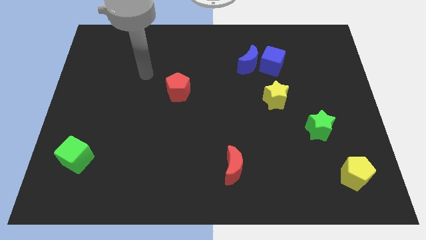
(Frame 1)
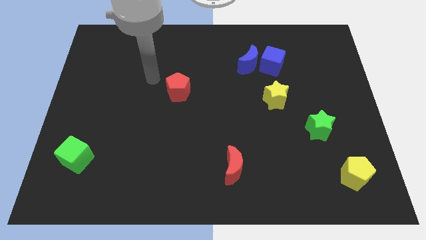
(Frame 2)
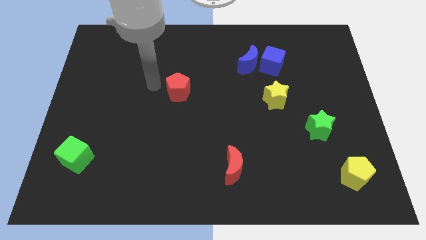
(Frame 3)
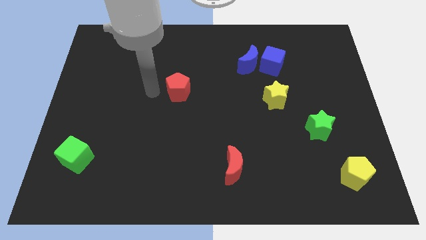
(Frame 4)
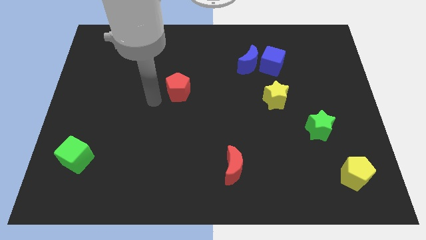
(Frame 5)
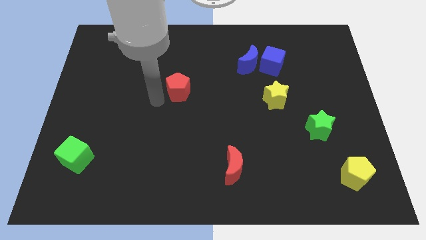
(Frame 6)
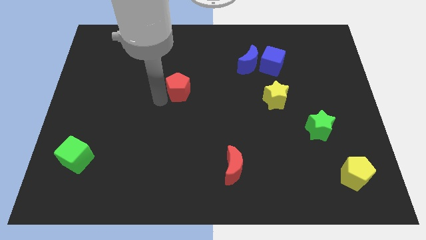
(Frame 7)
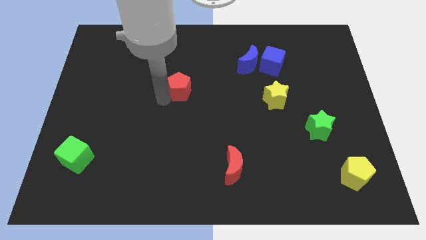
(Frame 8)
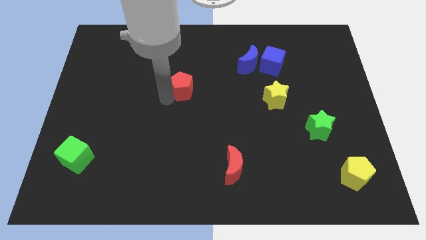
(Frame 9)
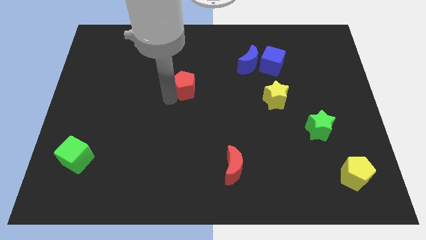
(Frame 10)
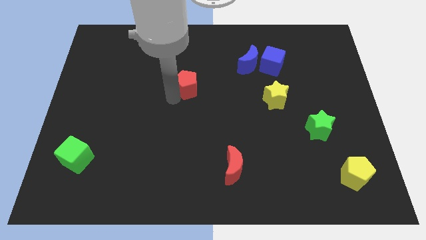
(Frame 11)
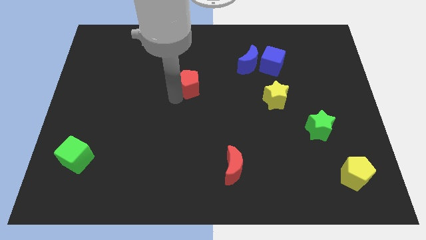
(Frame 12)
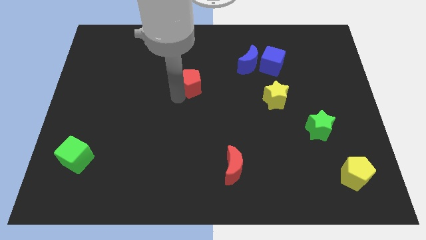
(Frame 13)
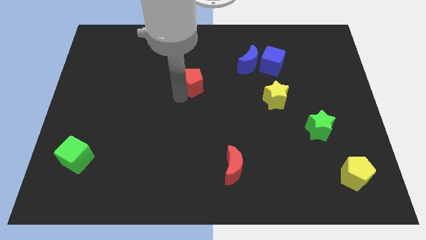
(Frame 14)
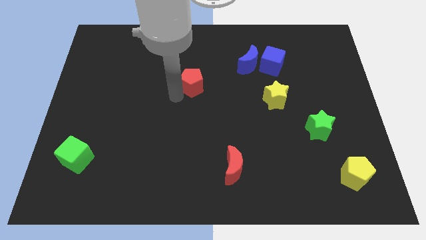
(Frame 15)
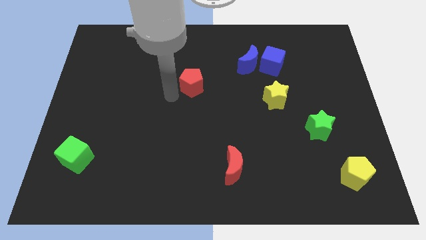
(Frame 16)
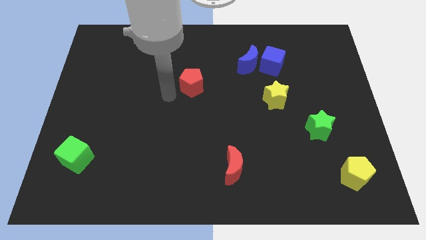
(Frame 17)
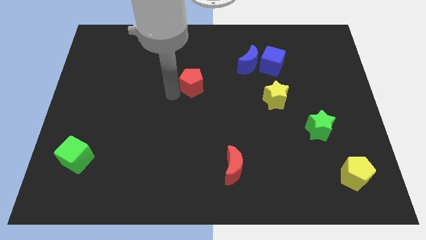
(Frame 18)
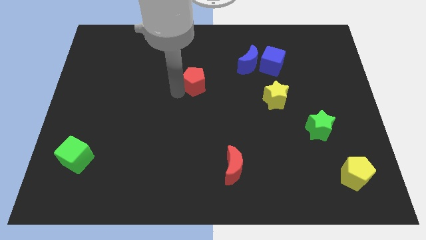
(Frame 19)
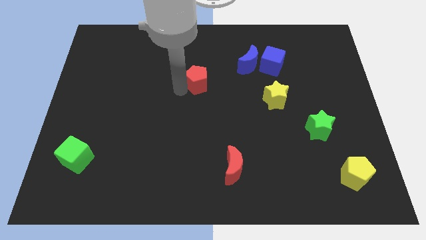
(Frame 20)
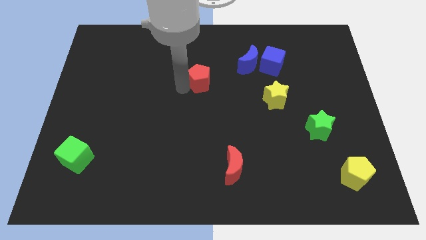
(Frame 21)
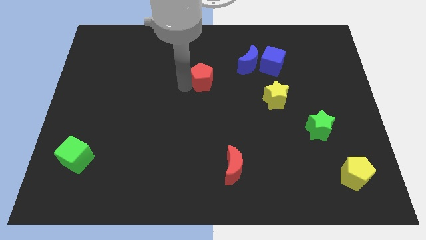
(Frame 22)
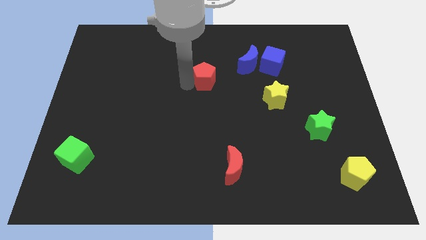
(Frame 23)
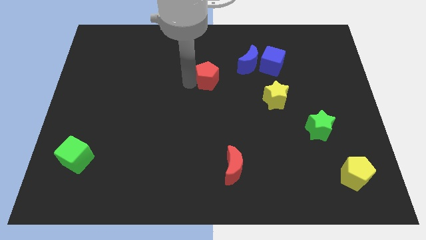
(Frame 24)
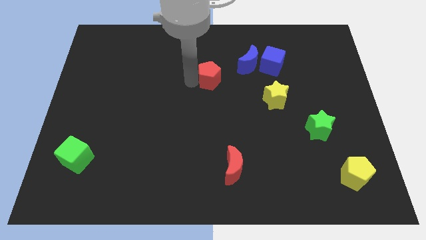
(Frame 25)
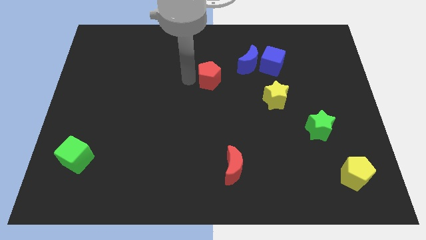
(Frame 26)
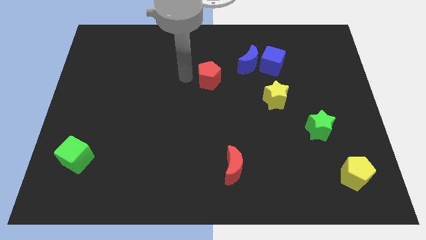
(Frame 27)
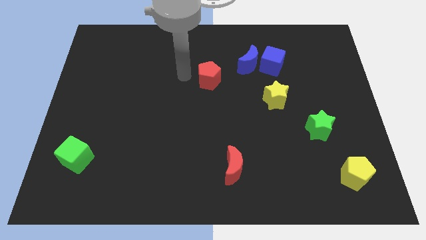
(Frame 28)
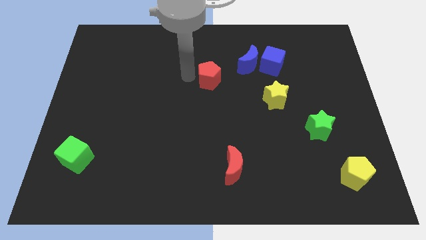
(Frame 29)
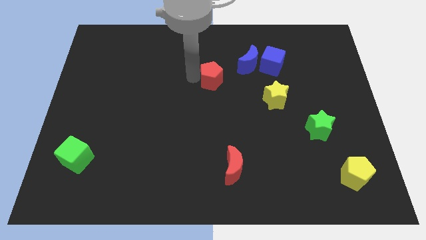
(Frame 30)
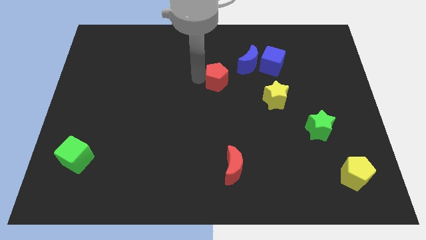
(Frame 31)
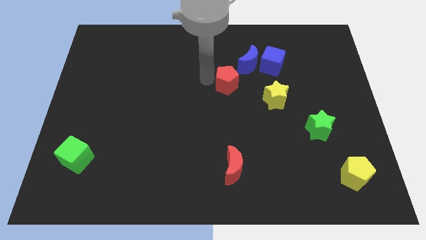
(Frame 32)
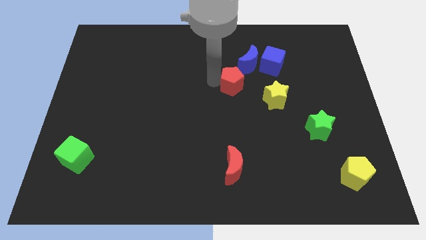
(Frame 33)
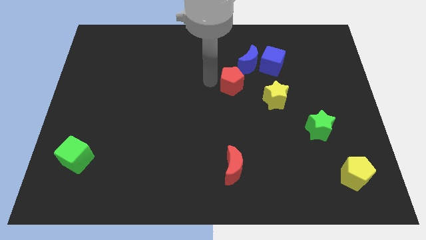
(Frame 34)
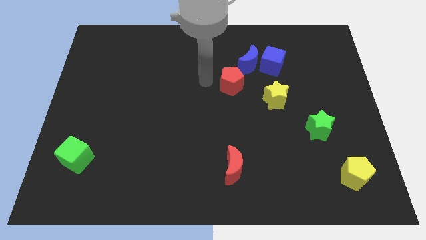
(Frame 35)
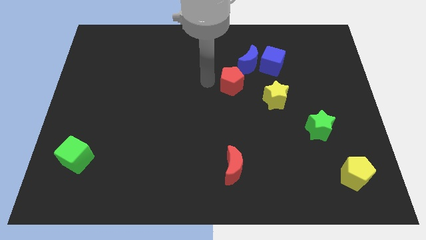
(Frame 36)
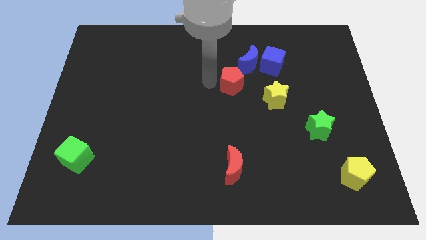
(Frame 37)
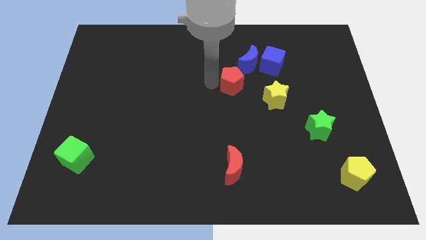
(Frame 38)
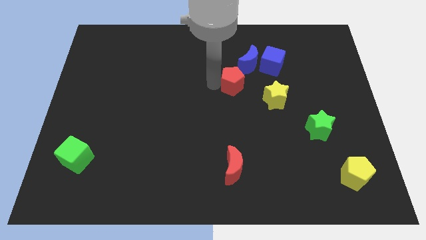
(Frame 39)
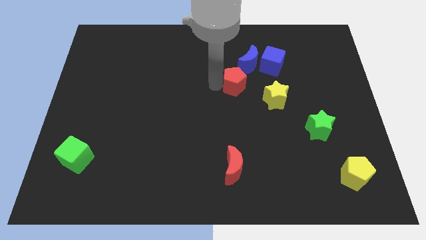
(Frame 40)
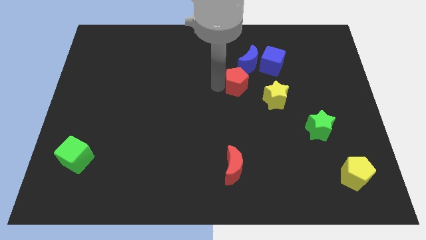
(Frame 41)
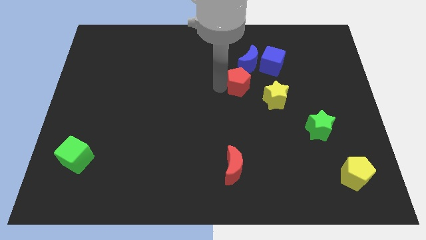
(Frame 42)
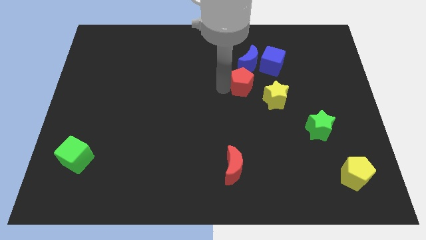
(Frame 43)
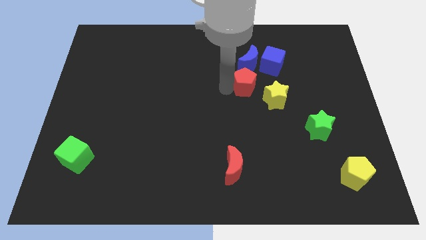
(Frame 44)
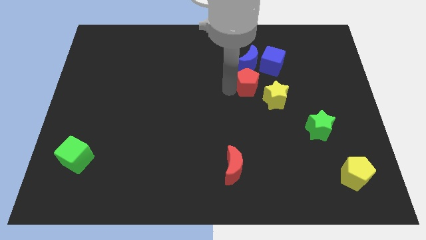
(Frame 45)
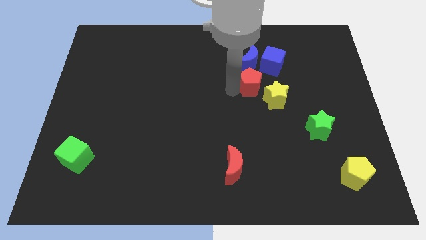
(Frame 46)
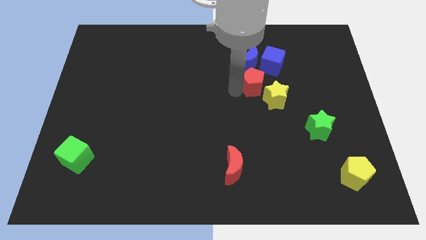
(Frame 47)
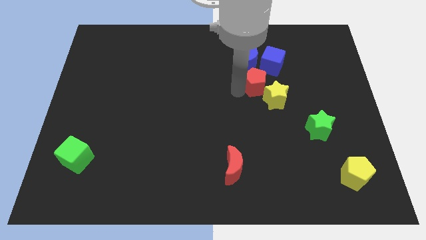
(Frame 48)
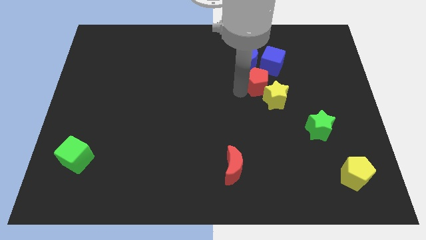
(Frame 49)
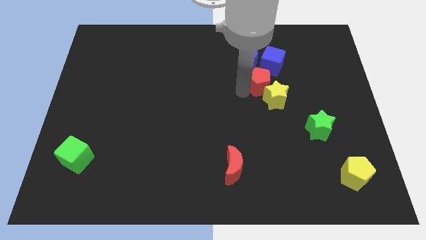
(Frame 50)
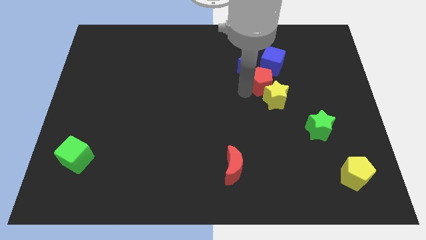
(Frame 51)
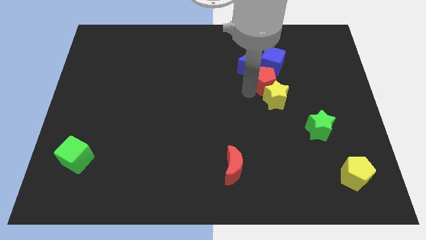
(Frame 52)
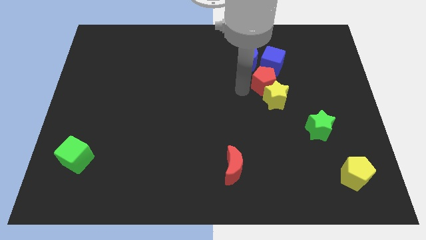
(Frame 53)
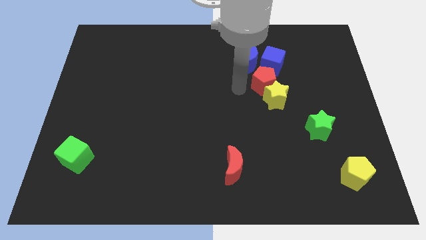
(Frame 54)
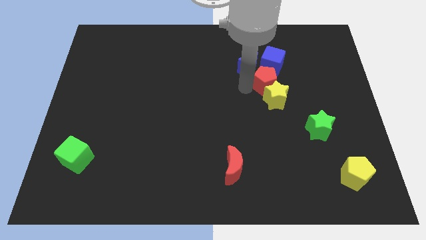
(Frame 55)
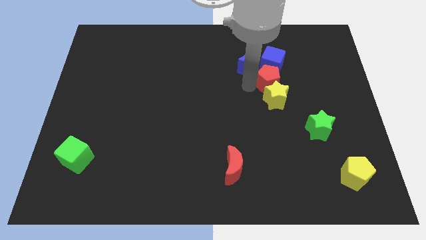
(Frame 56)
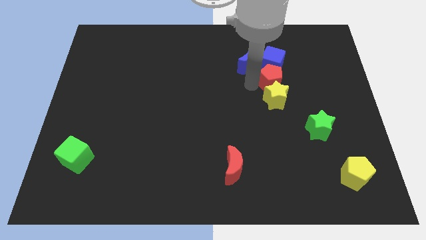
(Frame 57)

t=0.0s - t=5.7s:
move the red pentagon to the bottom right of the blue cube
